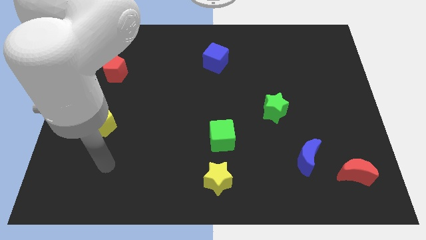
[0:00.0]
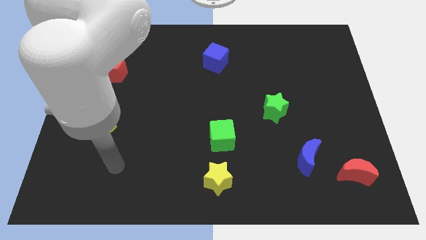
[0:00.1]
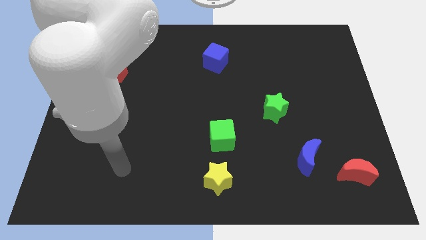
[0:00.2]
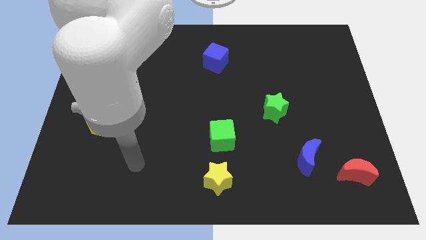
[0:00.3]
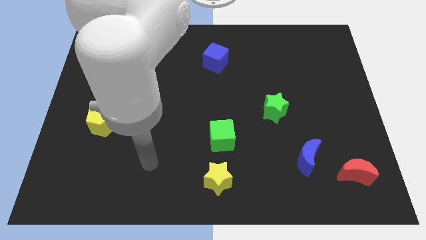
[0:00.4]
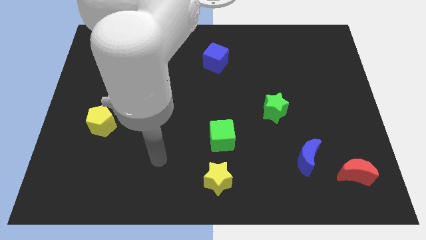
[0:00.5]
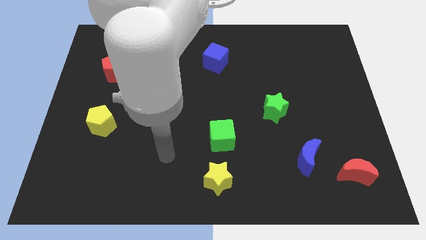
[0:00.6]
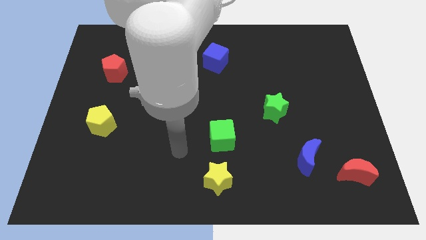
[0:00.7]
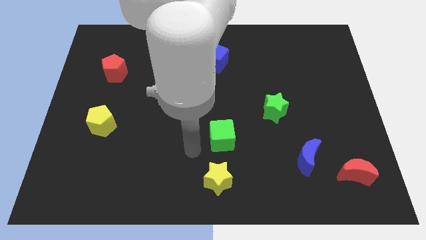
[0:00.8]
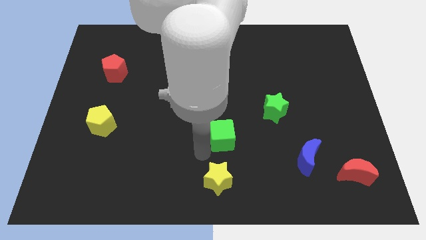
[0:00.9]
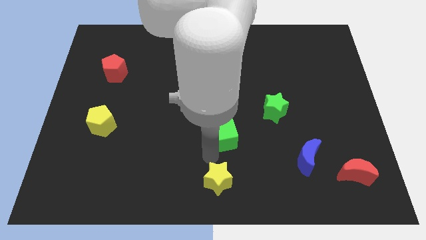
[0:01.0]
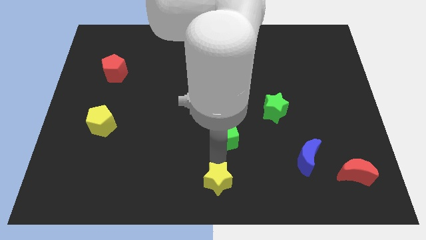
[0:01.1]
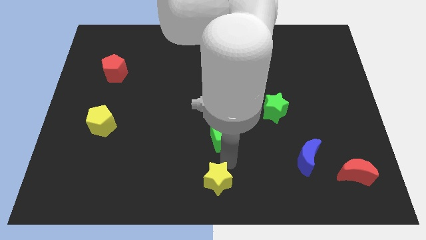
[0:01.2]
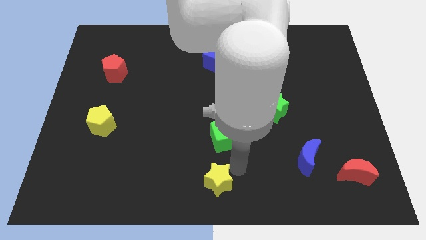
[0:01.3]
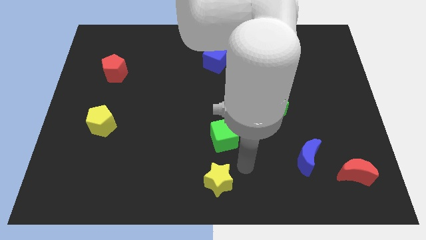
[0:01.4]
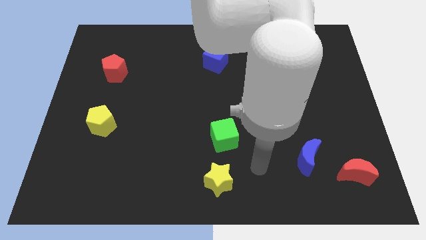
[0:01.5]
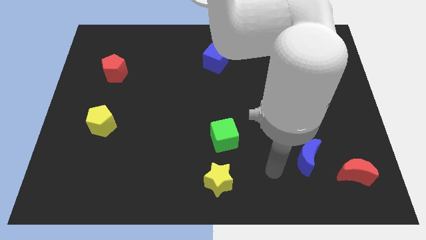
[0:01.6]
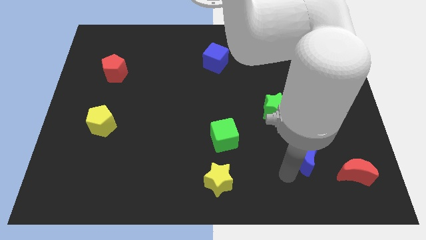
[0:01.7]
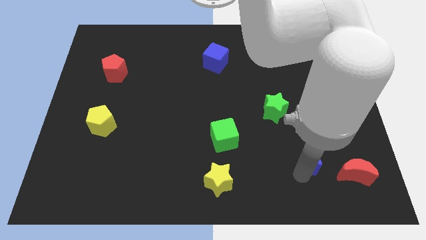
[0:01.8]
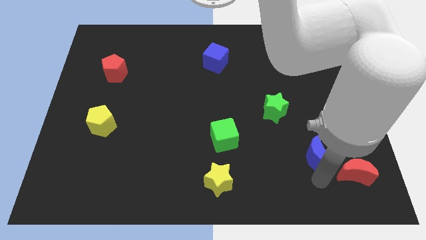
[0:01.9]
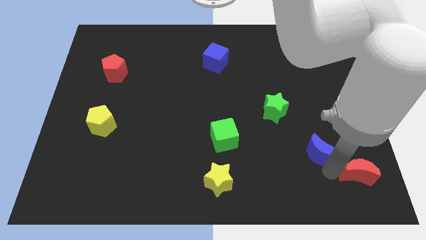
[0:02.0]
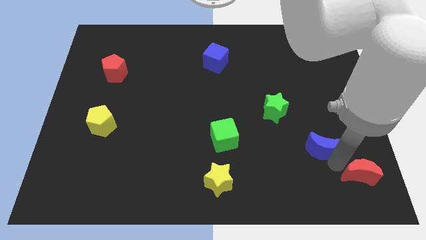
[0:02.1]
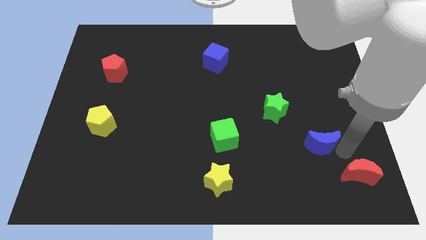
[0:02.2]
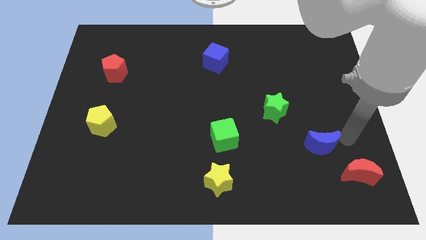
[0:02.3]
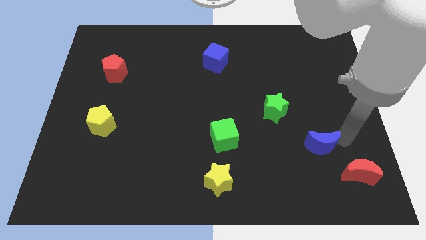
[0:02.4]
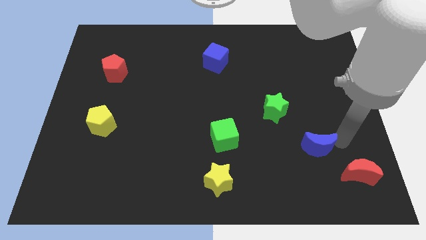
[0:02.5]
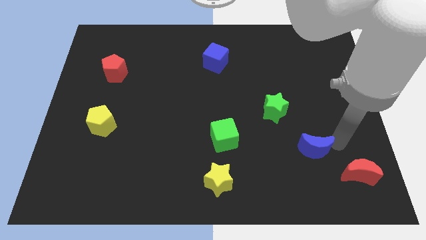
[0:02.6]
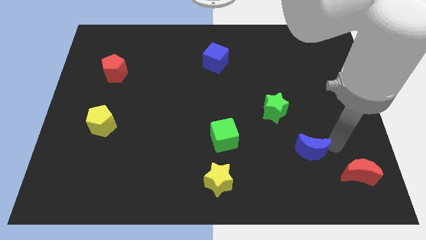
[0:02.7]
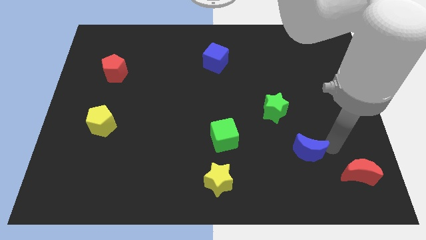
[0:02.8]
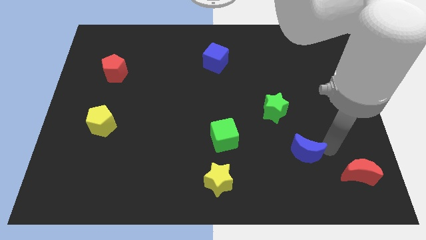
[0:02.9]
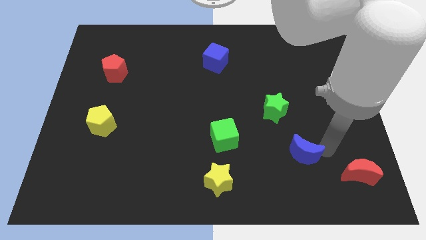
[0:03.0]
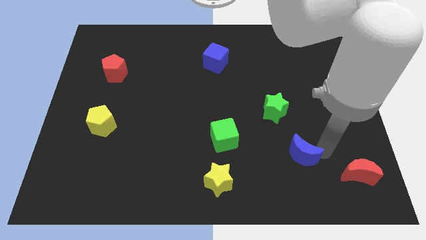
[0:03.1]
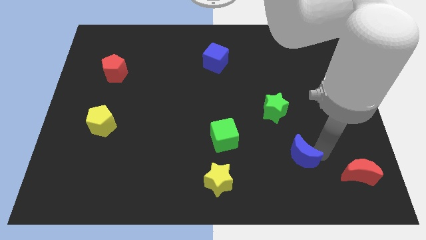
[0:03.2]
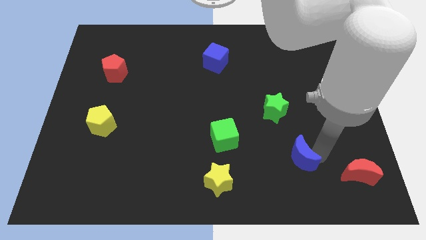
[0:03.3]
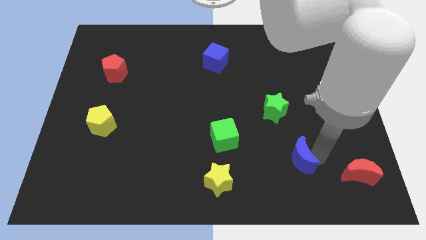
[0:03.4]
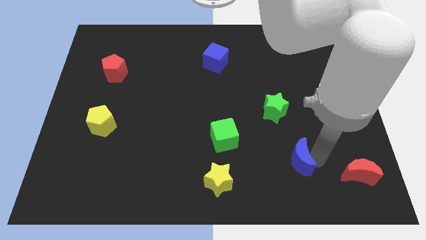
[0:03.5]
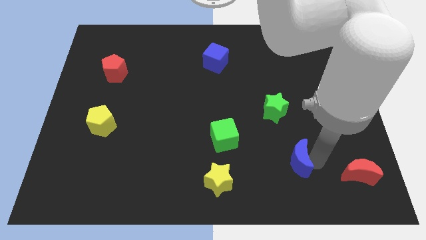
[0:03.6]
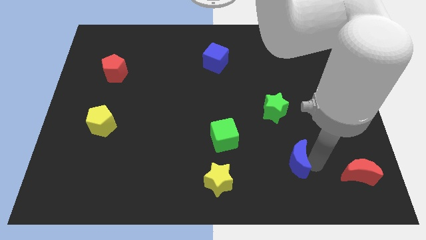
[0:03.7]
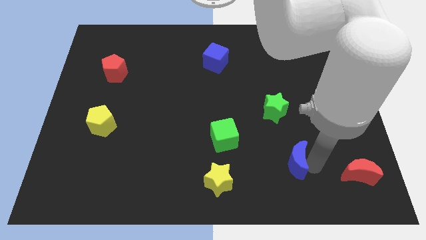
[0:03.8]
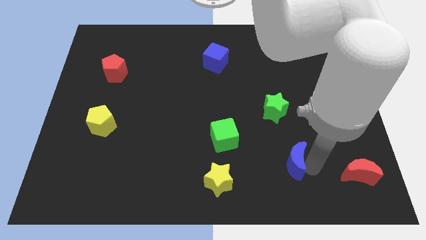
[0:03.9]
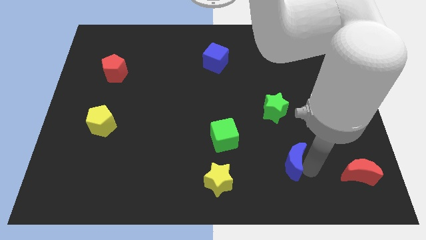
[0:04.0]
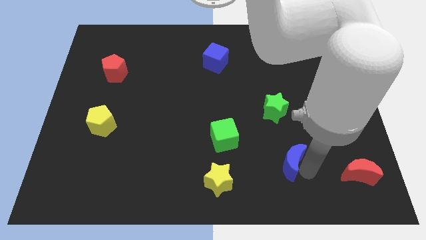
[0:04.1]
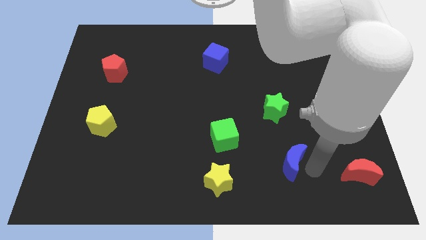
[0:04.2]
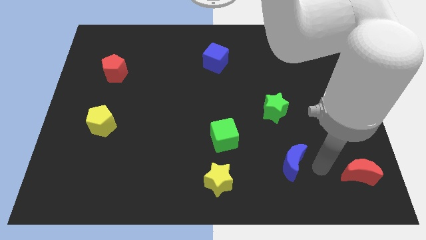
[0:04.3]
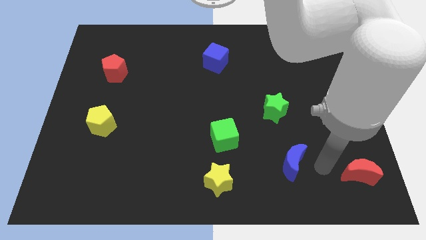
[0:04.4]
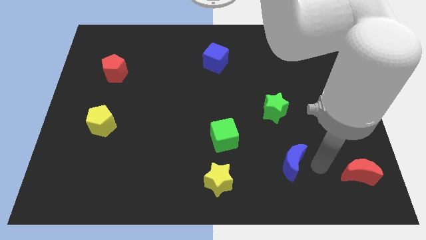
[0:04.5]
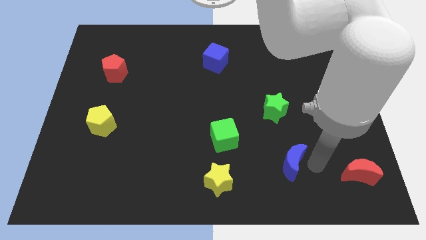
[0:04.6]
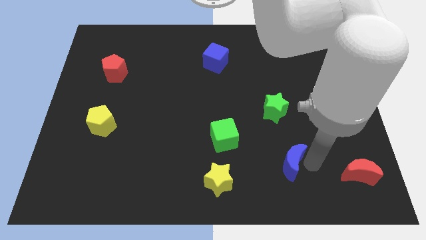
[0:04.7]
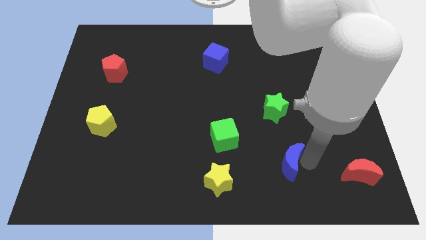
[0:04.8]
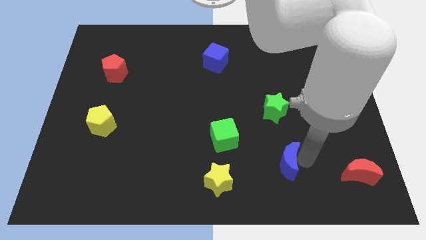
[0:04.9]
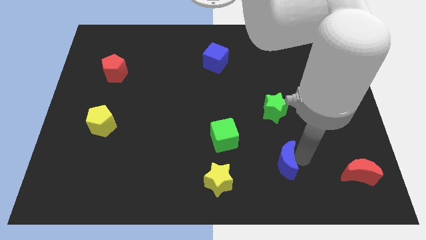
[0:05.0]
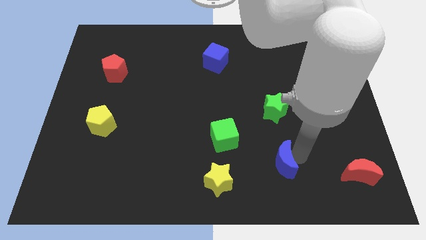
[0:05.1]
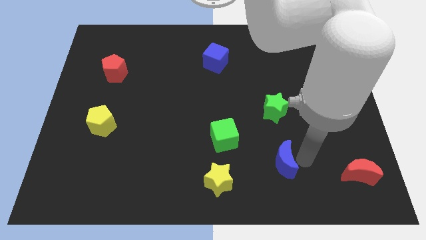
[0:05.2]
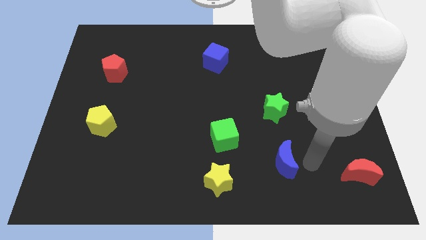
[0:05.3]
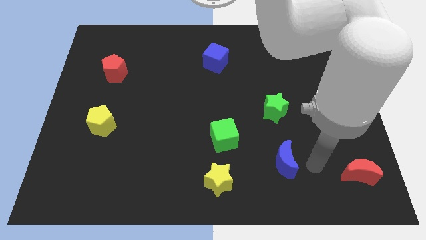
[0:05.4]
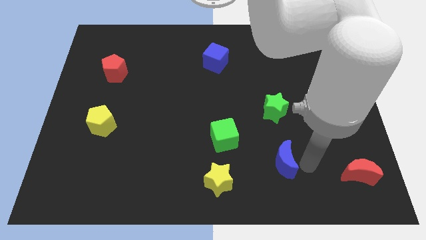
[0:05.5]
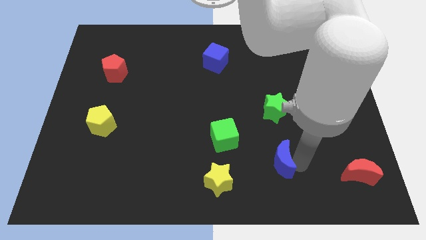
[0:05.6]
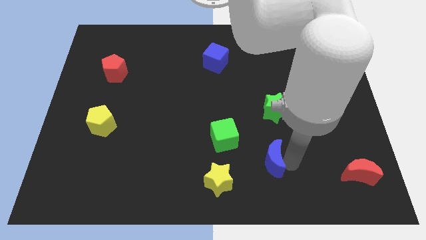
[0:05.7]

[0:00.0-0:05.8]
push the blue moon left somewhat

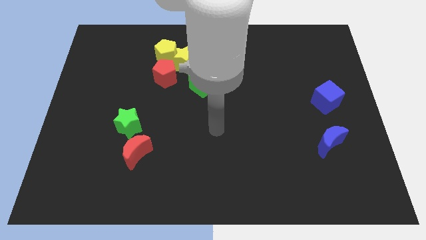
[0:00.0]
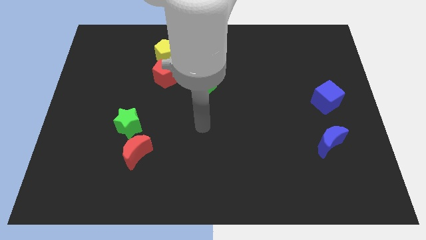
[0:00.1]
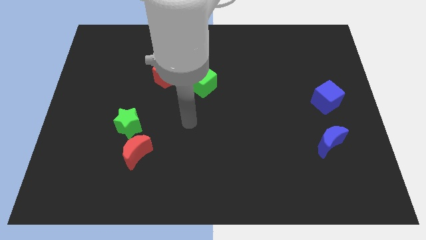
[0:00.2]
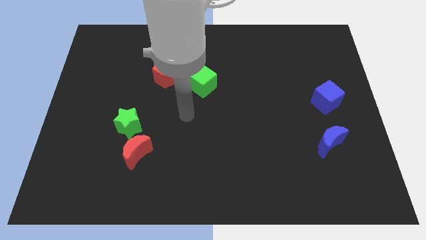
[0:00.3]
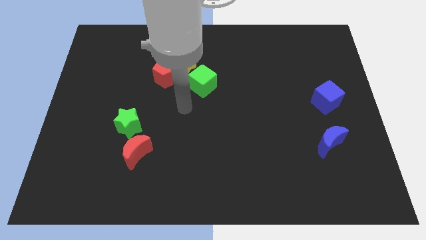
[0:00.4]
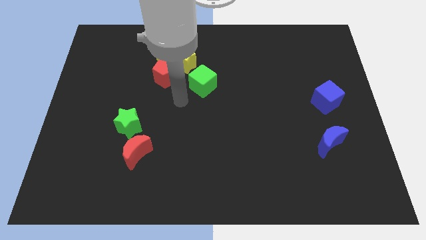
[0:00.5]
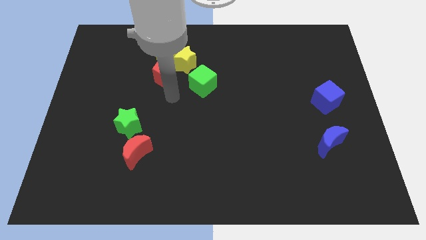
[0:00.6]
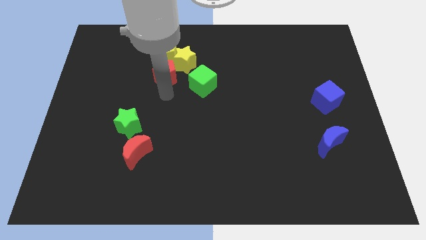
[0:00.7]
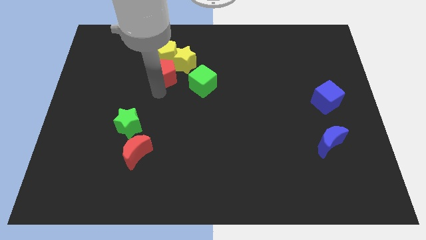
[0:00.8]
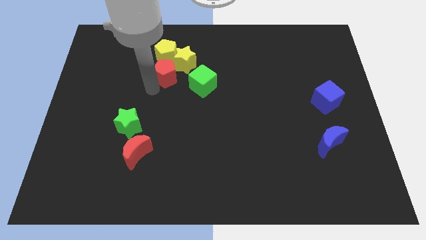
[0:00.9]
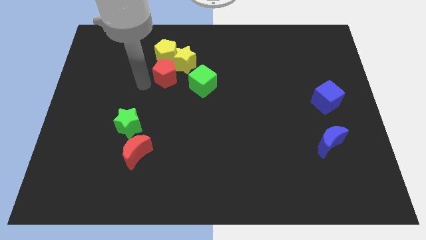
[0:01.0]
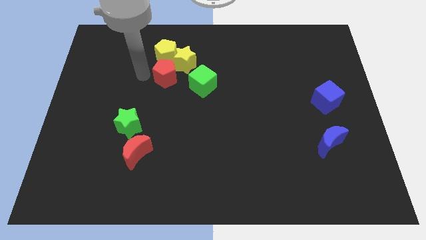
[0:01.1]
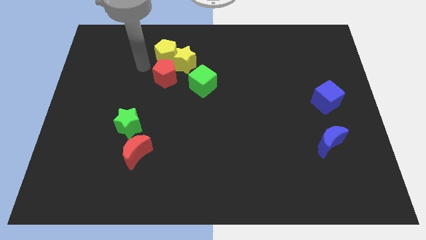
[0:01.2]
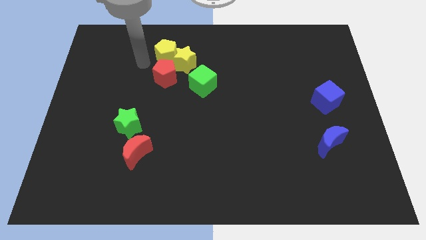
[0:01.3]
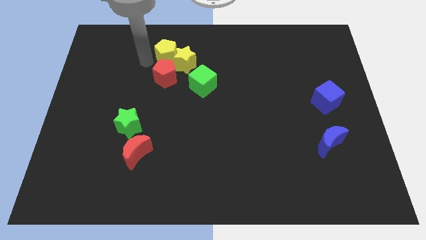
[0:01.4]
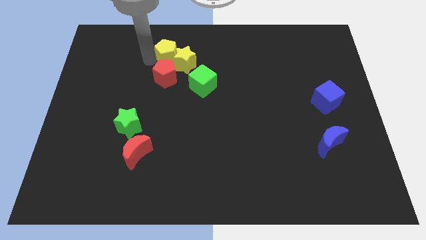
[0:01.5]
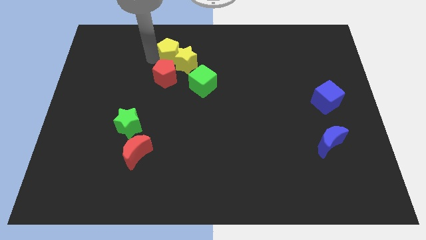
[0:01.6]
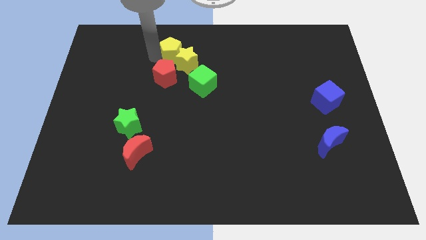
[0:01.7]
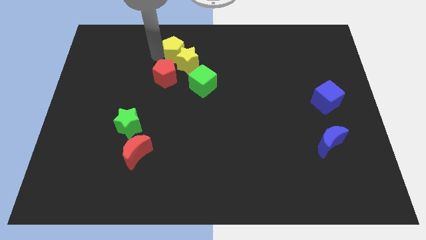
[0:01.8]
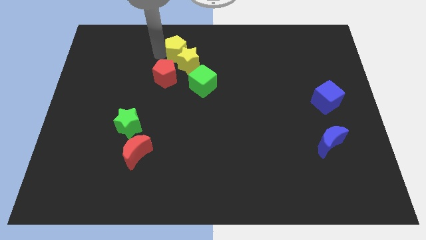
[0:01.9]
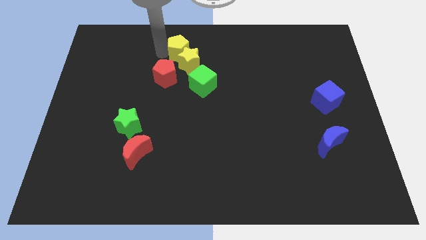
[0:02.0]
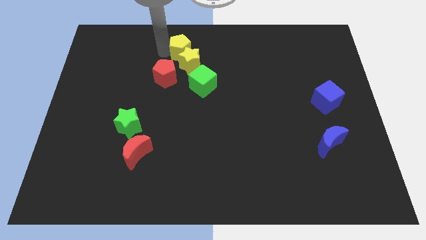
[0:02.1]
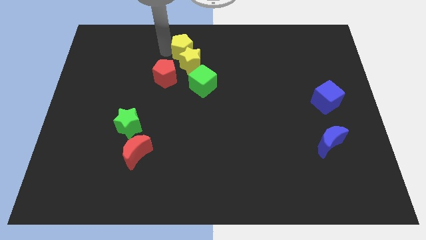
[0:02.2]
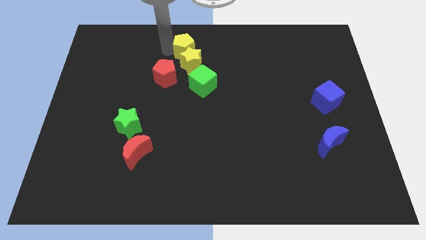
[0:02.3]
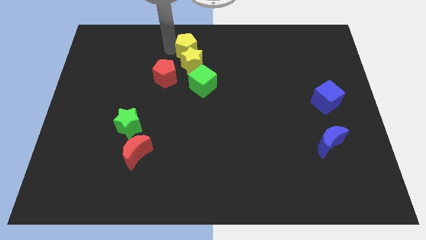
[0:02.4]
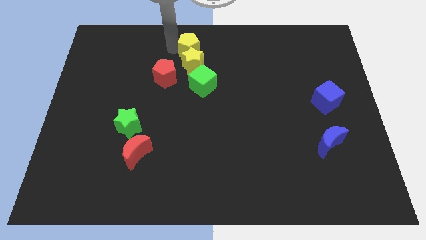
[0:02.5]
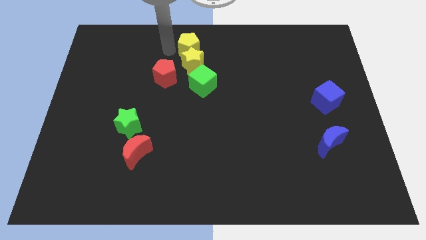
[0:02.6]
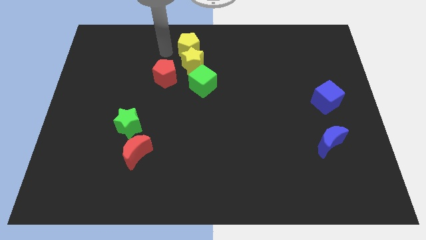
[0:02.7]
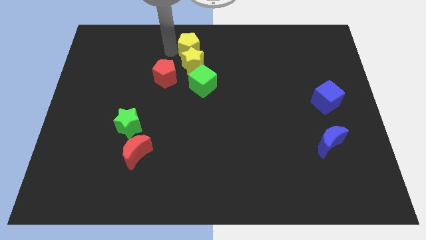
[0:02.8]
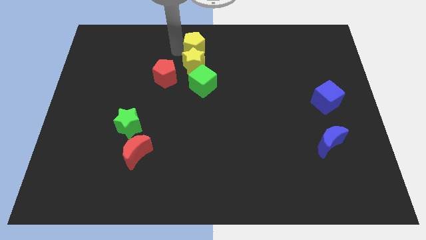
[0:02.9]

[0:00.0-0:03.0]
push the yellow pentagon a bit right
